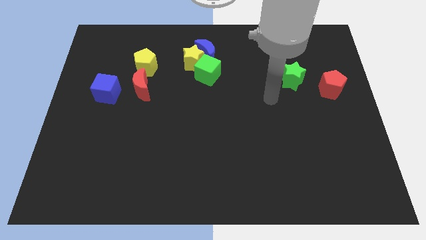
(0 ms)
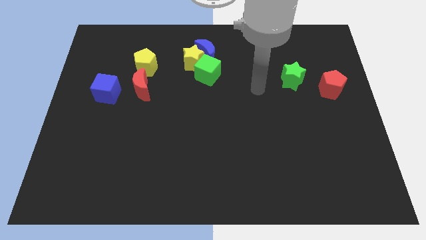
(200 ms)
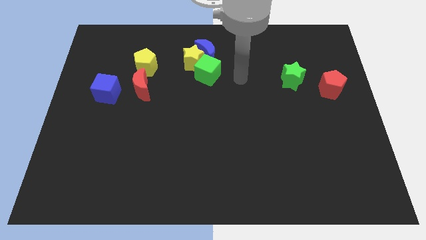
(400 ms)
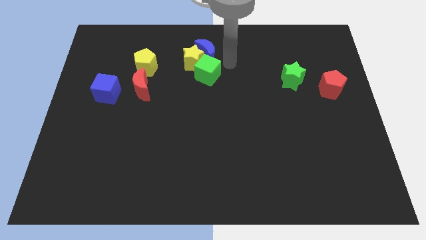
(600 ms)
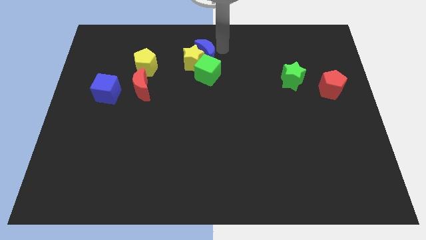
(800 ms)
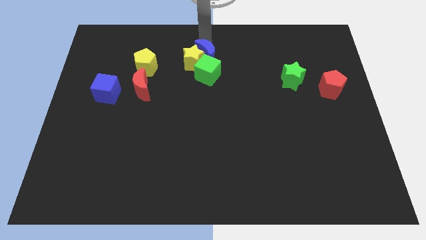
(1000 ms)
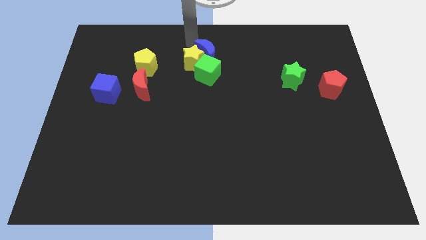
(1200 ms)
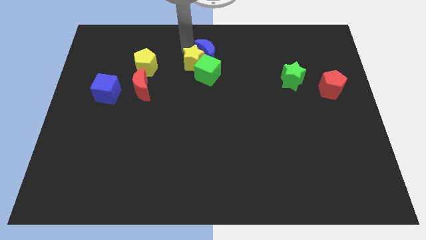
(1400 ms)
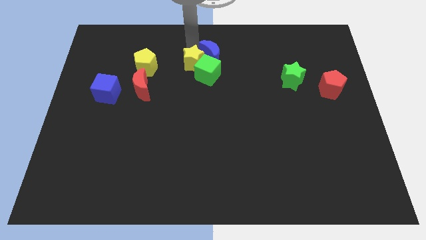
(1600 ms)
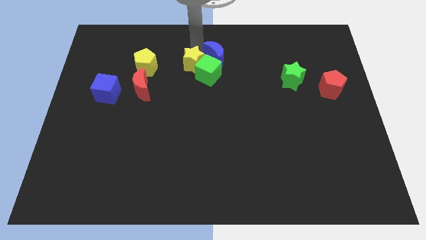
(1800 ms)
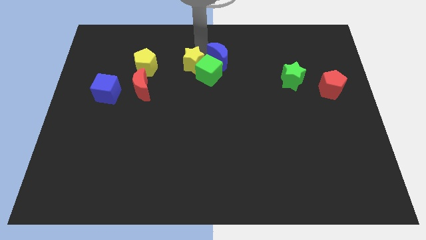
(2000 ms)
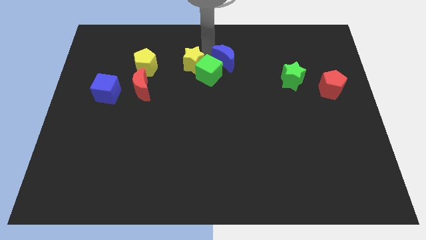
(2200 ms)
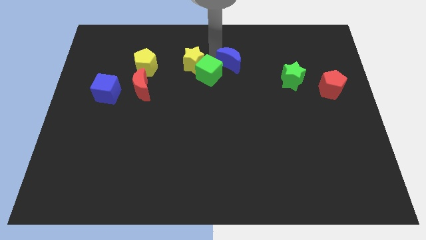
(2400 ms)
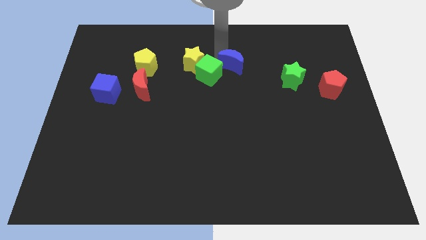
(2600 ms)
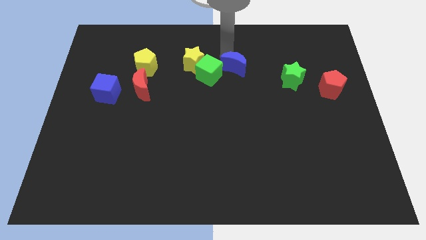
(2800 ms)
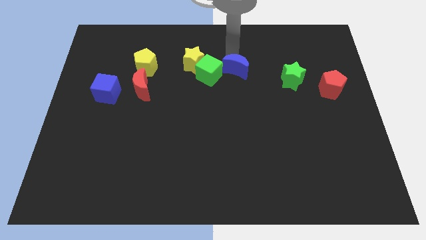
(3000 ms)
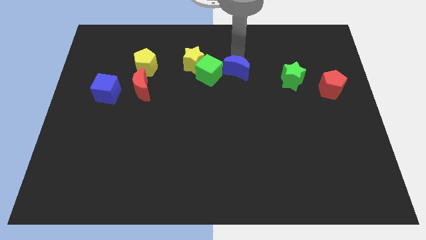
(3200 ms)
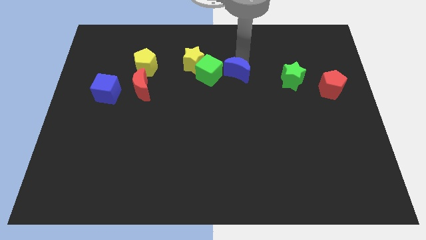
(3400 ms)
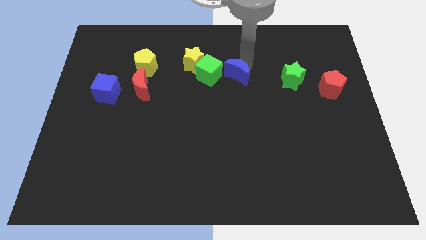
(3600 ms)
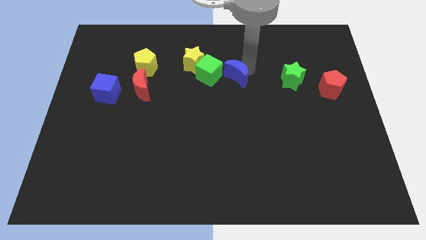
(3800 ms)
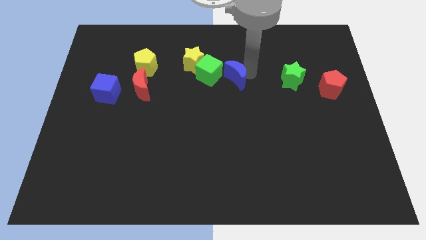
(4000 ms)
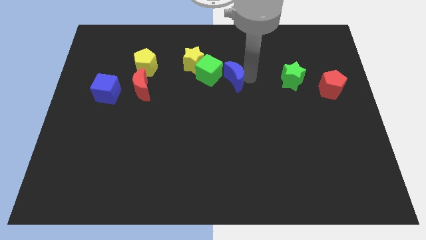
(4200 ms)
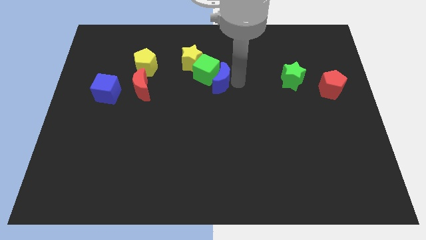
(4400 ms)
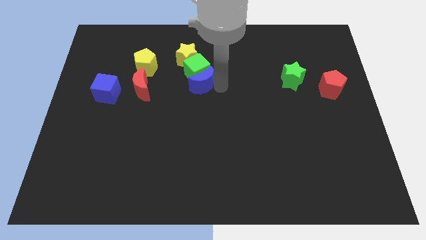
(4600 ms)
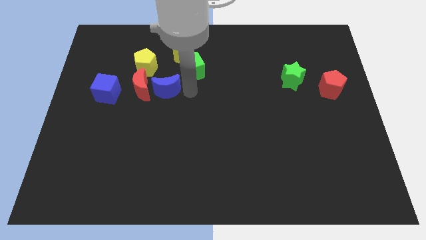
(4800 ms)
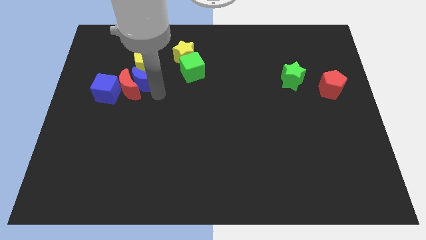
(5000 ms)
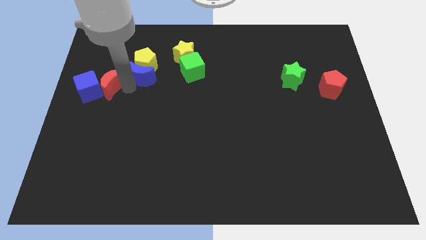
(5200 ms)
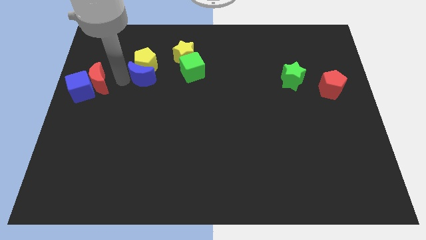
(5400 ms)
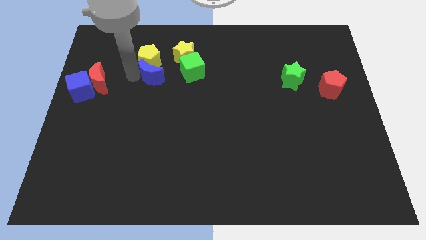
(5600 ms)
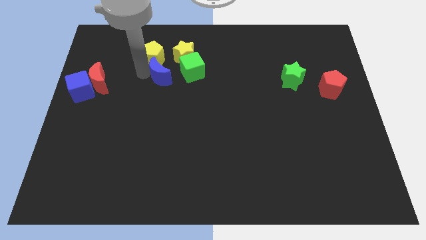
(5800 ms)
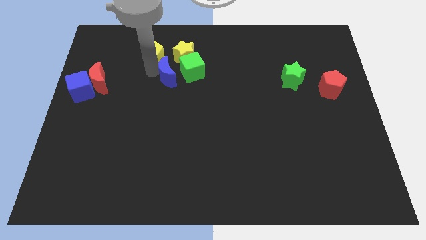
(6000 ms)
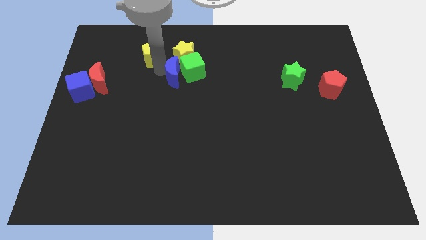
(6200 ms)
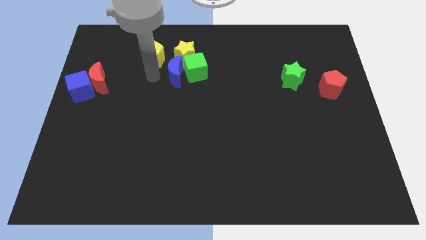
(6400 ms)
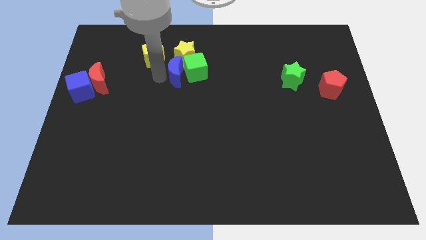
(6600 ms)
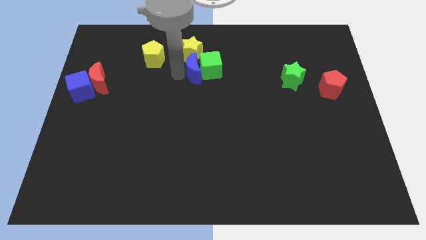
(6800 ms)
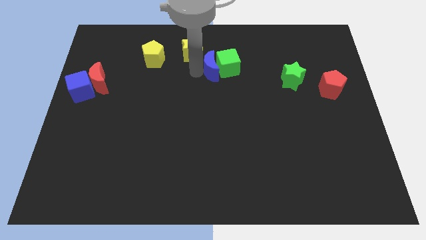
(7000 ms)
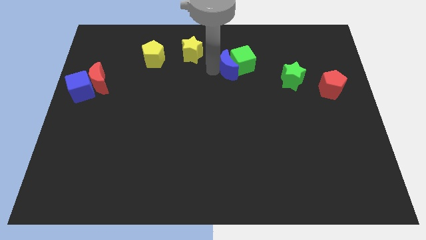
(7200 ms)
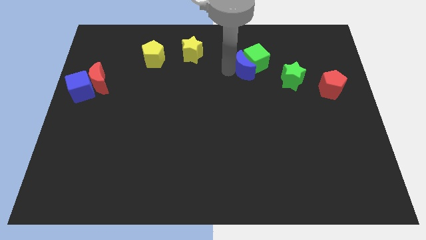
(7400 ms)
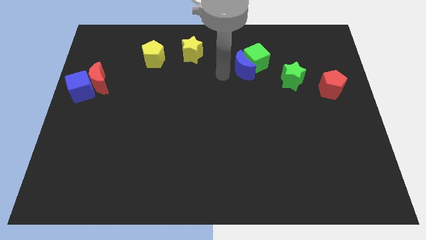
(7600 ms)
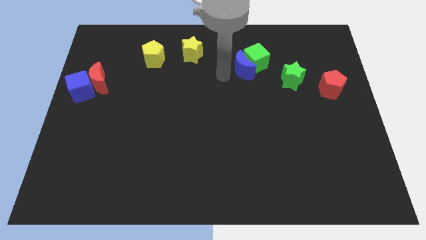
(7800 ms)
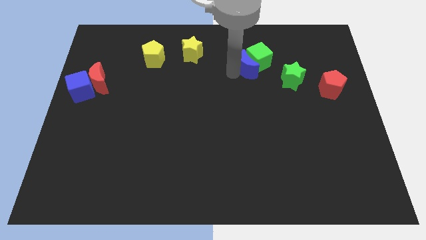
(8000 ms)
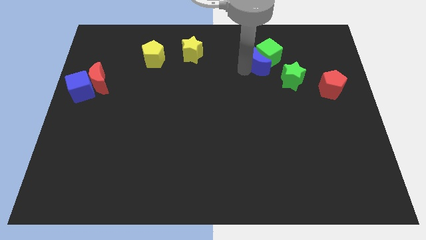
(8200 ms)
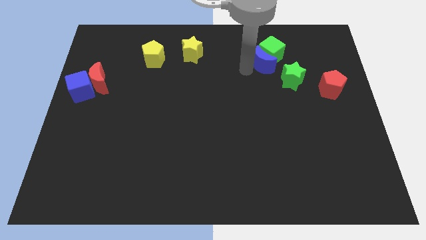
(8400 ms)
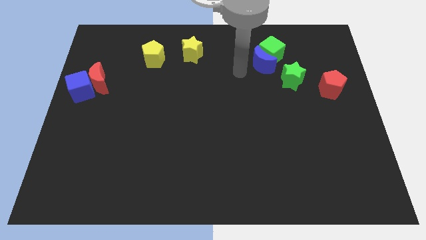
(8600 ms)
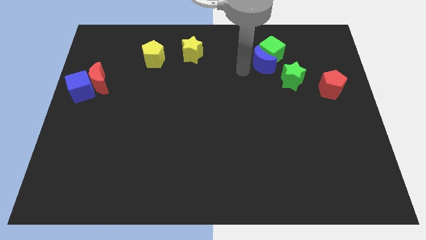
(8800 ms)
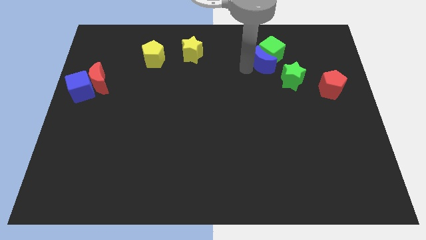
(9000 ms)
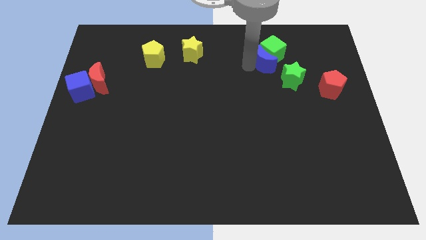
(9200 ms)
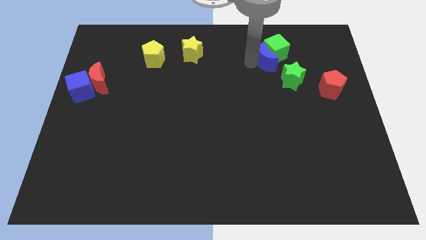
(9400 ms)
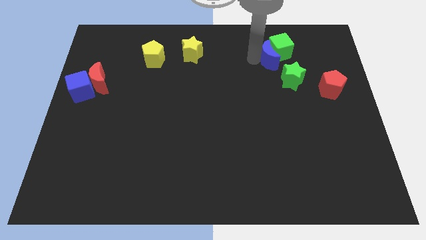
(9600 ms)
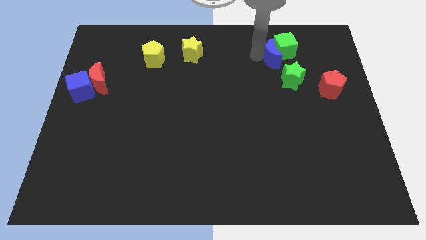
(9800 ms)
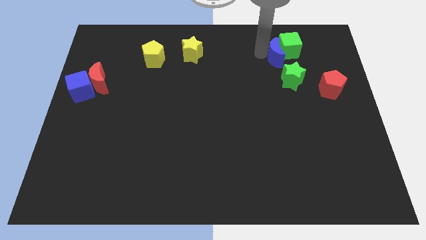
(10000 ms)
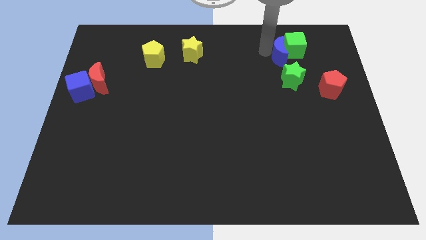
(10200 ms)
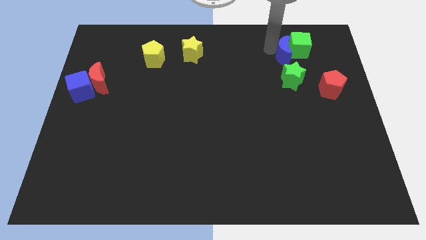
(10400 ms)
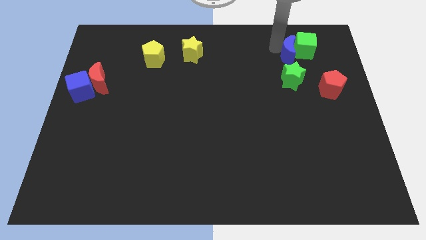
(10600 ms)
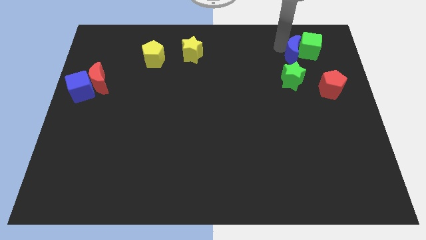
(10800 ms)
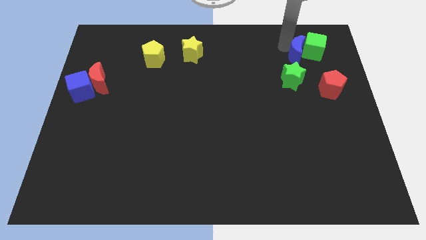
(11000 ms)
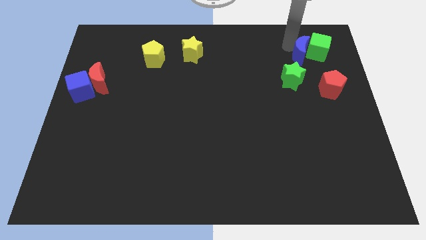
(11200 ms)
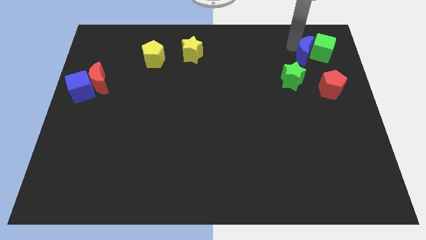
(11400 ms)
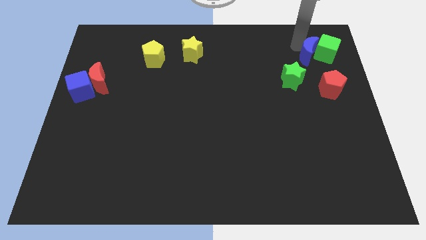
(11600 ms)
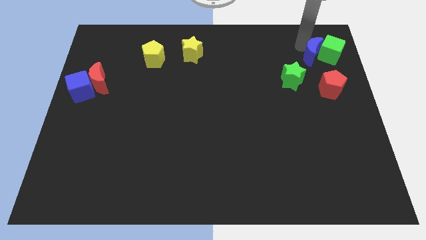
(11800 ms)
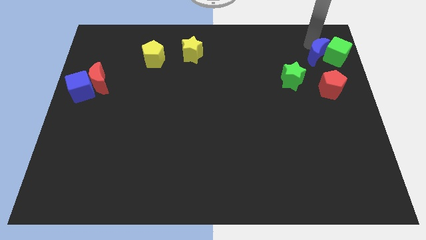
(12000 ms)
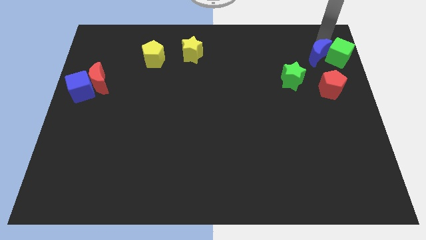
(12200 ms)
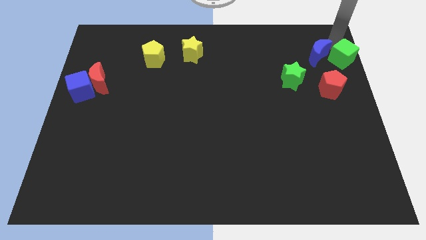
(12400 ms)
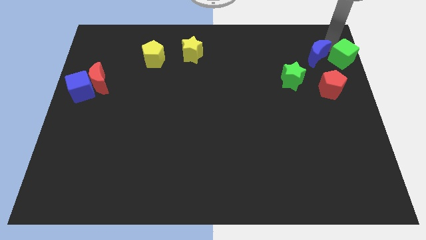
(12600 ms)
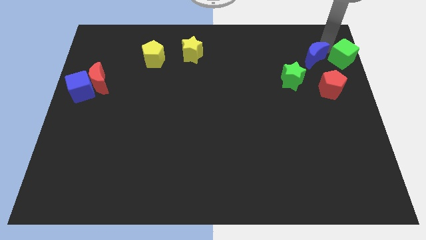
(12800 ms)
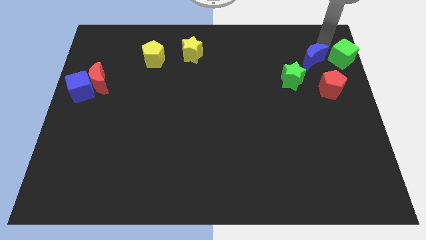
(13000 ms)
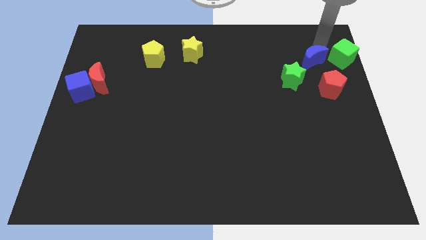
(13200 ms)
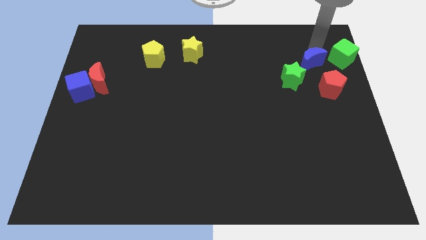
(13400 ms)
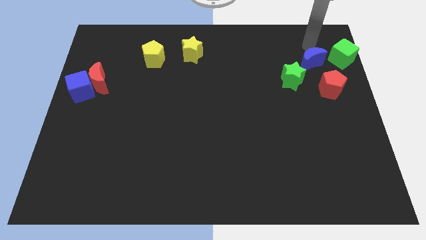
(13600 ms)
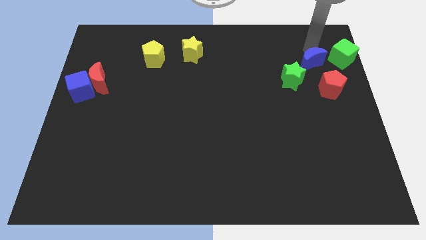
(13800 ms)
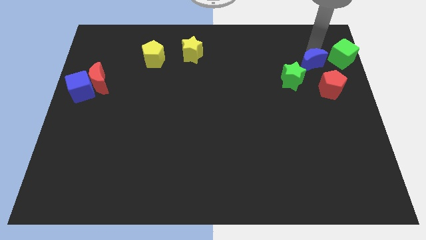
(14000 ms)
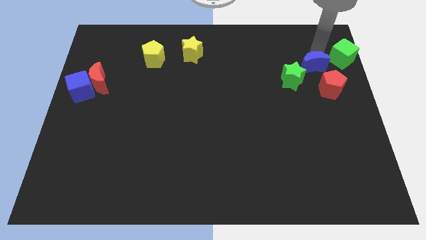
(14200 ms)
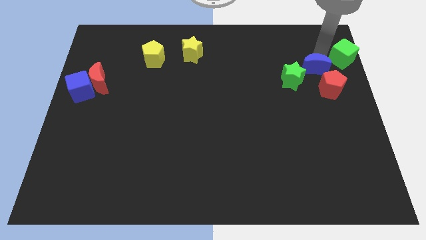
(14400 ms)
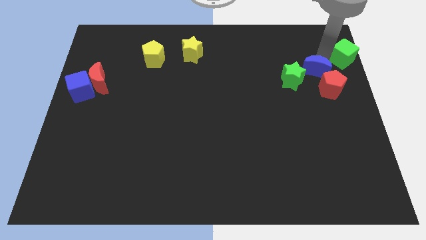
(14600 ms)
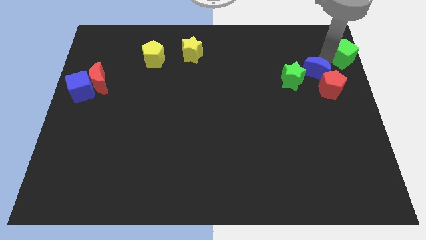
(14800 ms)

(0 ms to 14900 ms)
put the blue moon close to the red pentagon

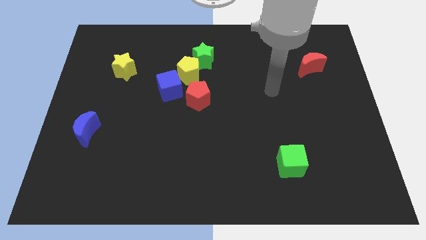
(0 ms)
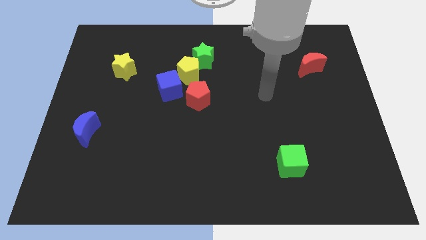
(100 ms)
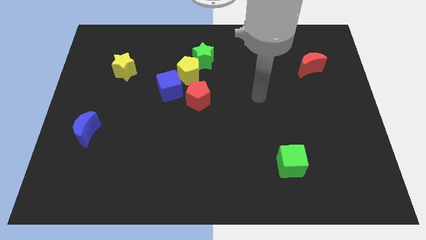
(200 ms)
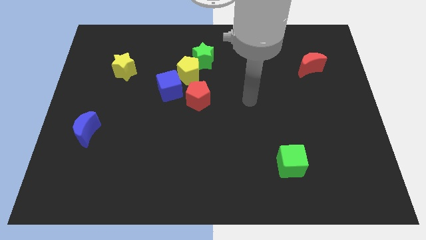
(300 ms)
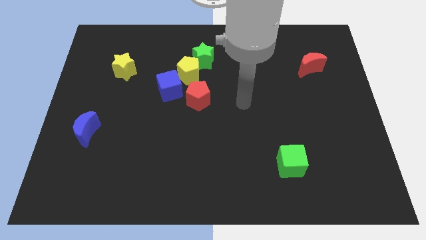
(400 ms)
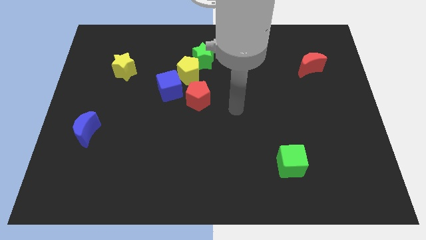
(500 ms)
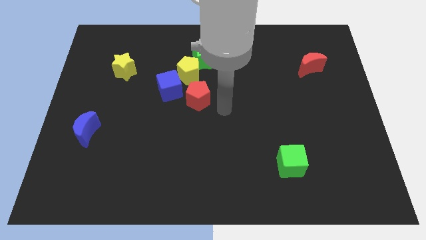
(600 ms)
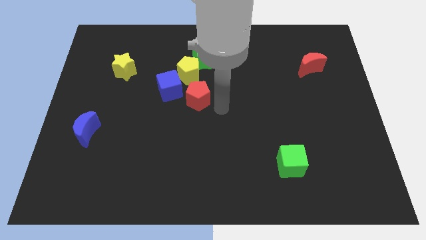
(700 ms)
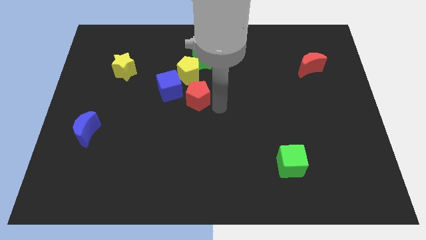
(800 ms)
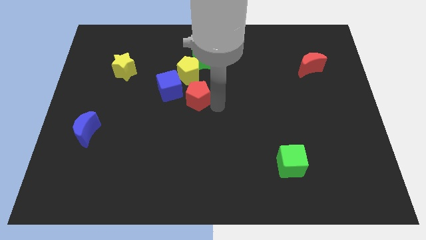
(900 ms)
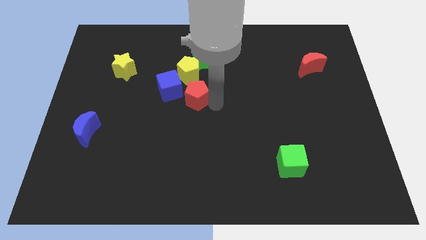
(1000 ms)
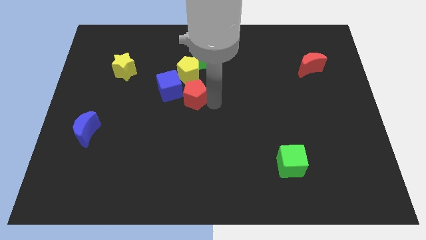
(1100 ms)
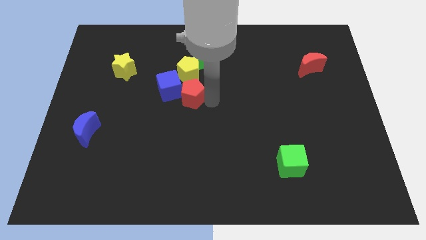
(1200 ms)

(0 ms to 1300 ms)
put the red pentagon next to the blue cube
